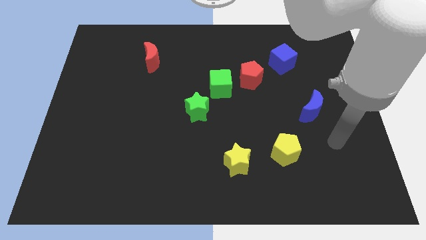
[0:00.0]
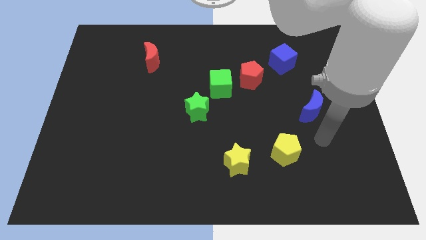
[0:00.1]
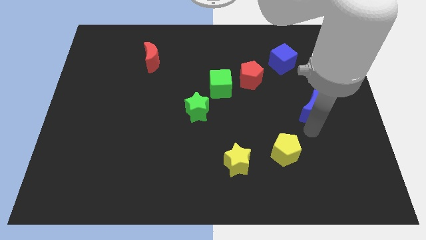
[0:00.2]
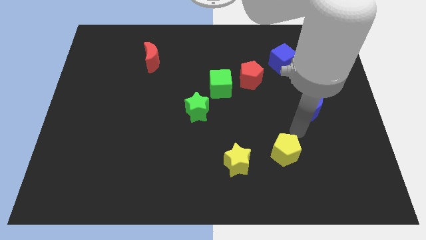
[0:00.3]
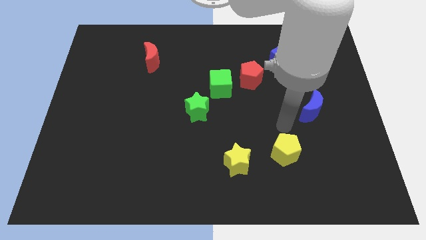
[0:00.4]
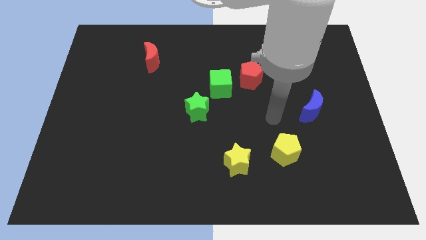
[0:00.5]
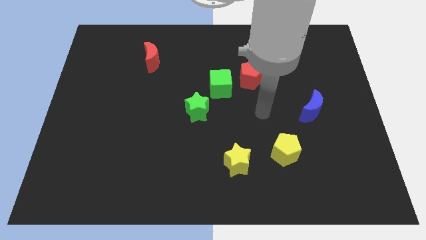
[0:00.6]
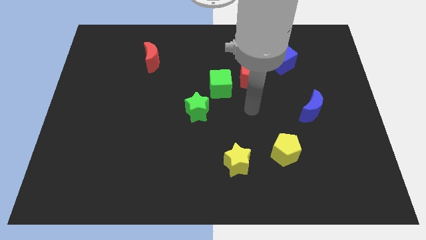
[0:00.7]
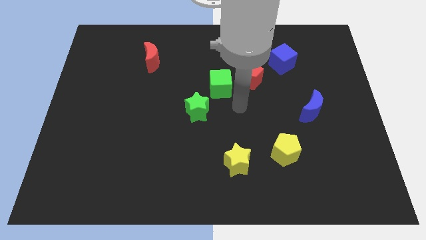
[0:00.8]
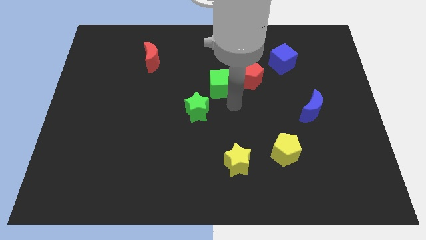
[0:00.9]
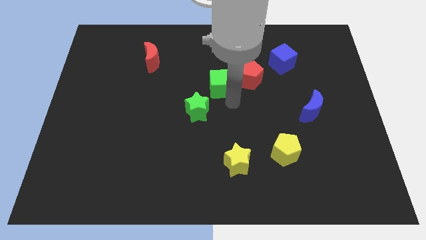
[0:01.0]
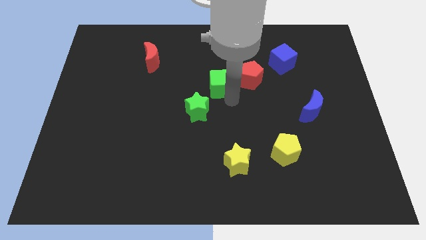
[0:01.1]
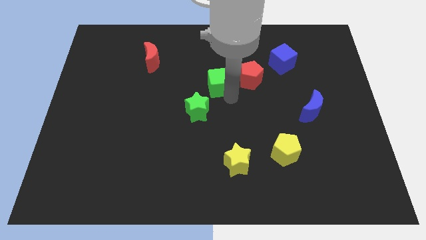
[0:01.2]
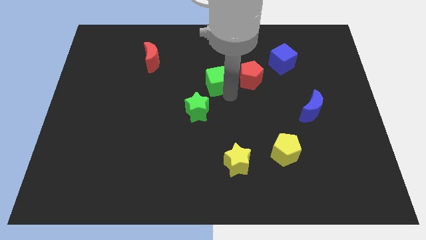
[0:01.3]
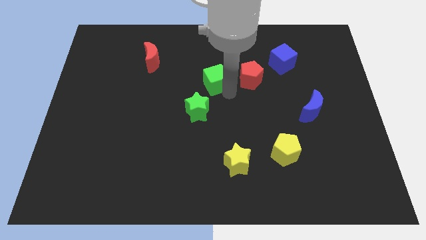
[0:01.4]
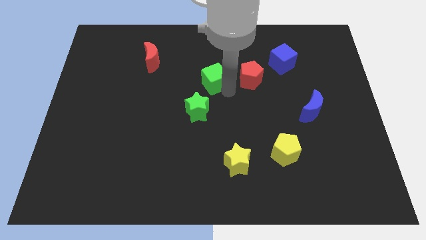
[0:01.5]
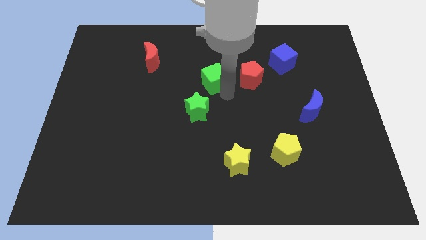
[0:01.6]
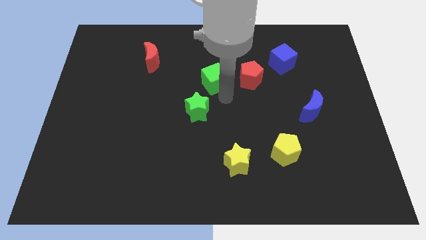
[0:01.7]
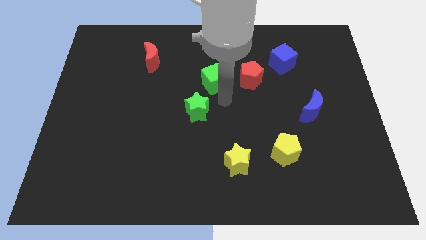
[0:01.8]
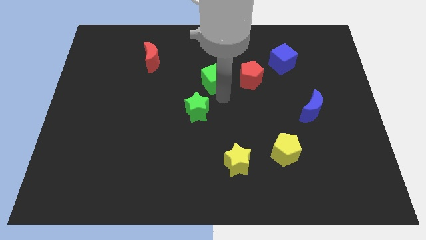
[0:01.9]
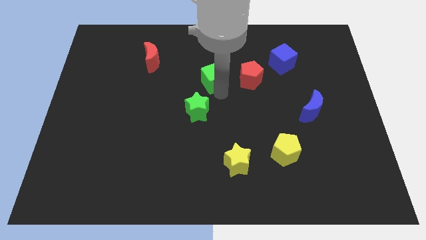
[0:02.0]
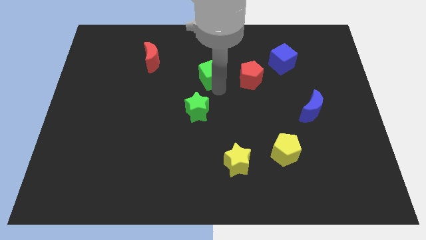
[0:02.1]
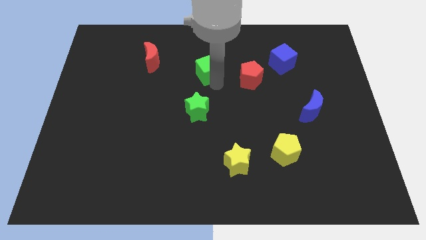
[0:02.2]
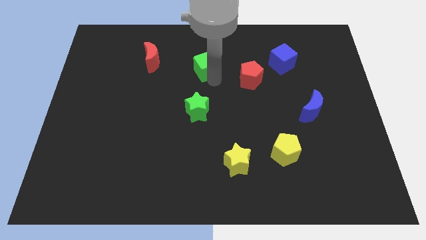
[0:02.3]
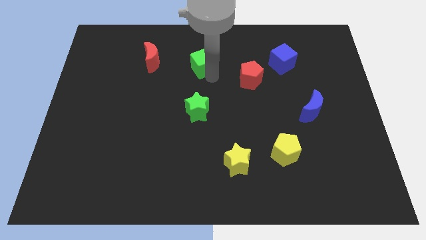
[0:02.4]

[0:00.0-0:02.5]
separate the green cube from the red pentagon and green star

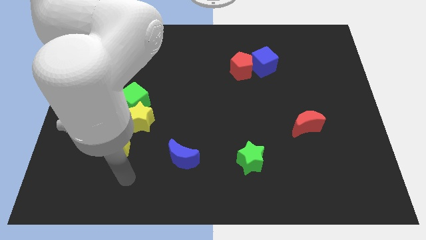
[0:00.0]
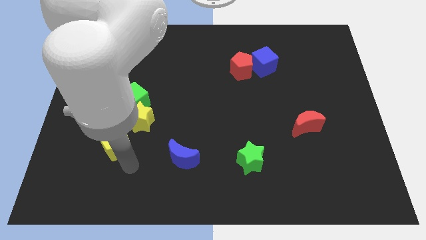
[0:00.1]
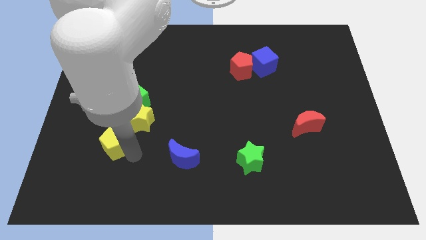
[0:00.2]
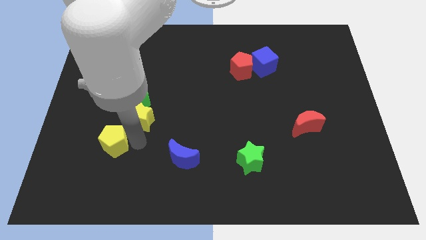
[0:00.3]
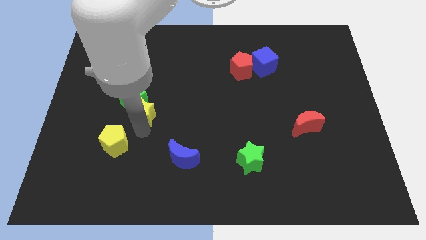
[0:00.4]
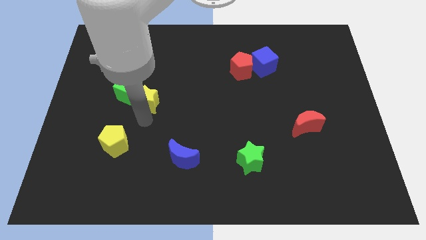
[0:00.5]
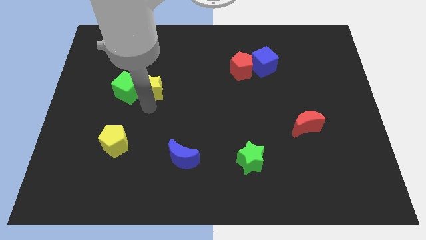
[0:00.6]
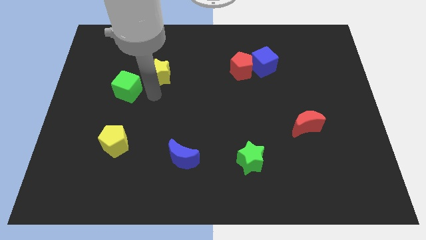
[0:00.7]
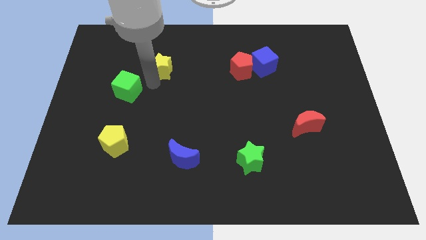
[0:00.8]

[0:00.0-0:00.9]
separate the green cube from the yellow star

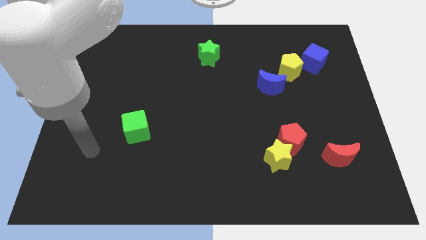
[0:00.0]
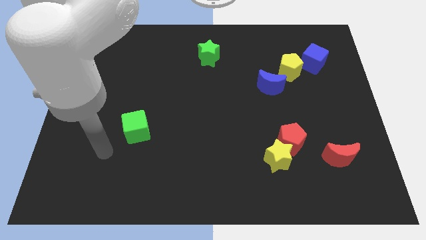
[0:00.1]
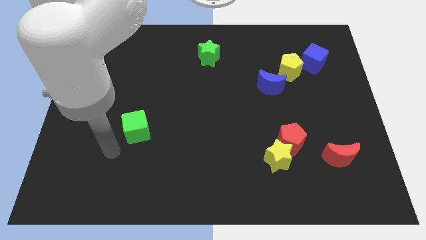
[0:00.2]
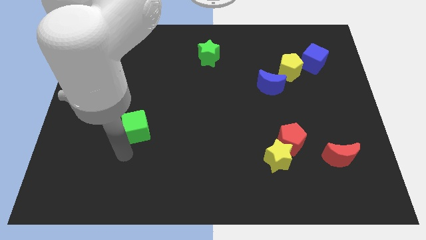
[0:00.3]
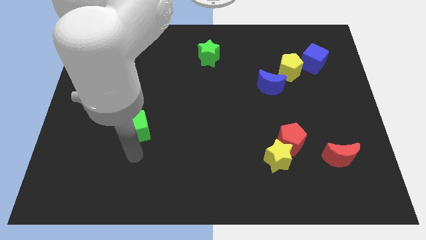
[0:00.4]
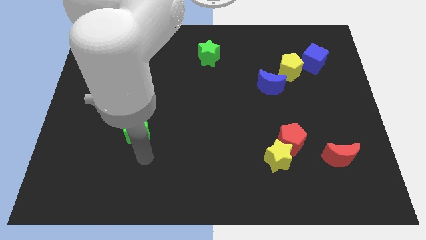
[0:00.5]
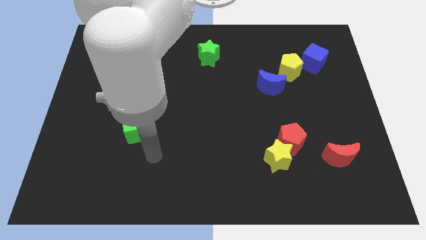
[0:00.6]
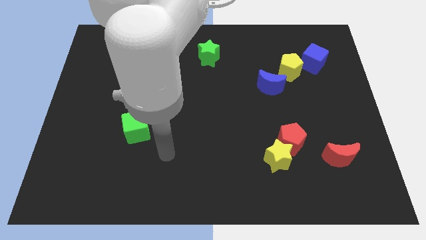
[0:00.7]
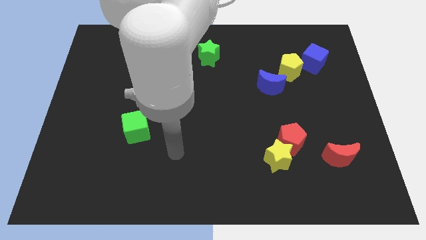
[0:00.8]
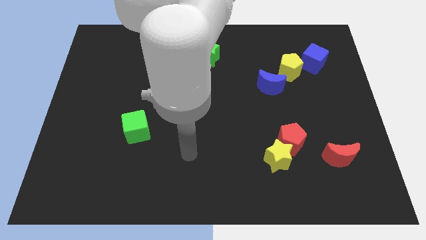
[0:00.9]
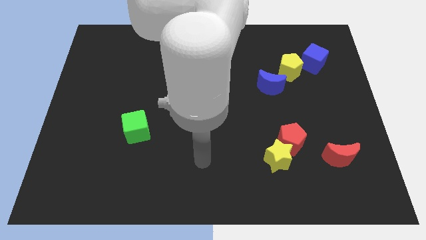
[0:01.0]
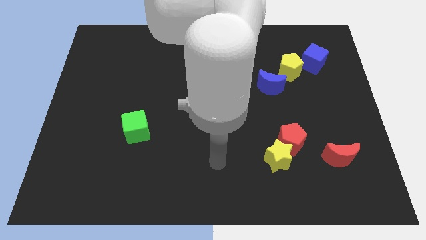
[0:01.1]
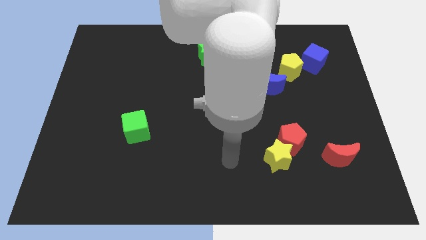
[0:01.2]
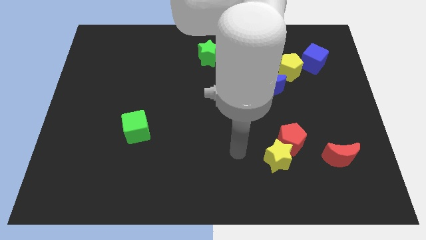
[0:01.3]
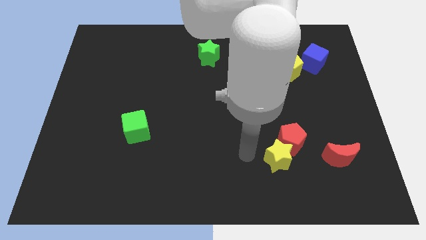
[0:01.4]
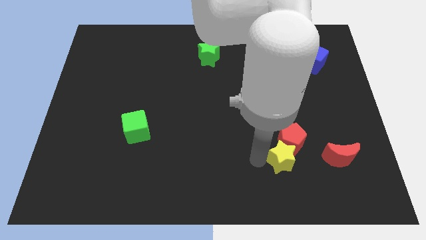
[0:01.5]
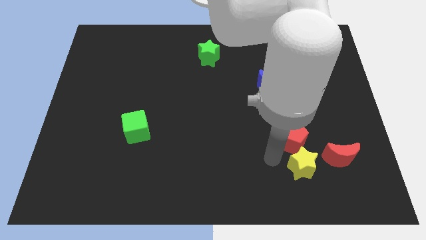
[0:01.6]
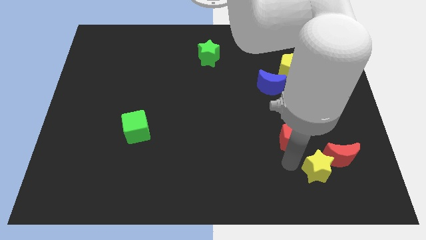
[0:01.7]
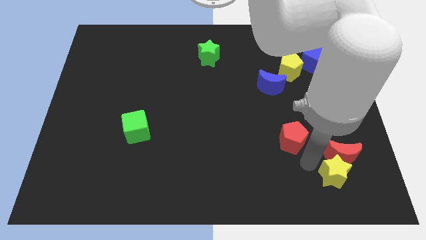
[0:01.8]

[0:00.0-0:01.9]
move the red pentagon away from the yellow star

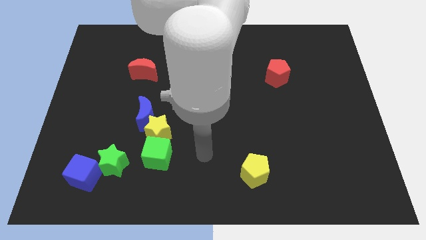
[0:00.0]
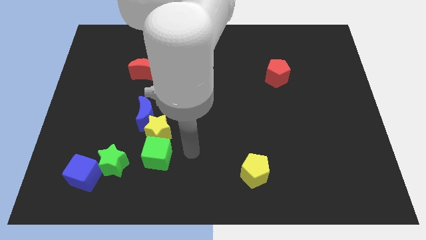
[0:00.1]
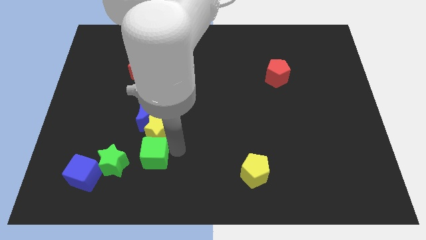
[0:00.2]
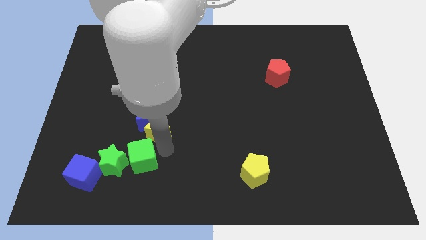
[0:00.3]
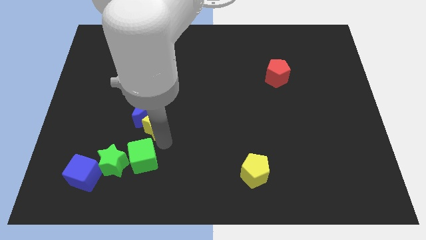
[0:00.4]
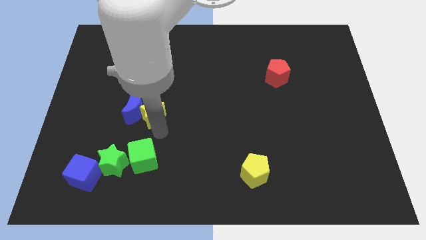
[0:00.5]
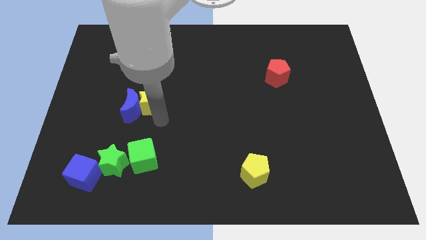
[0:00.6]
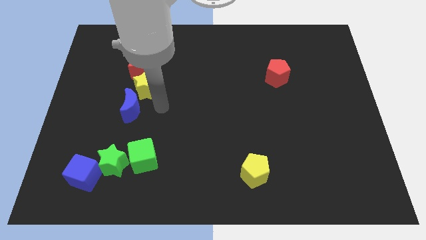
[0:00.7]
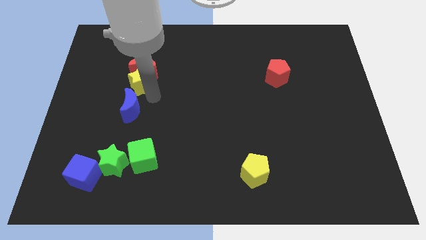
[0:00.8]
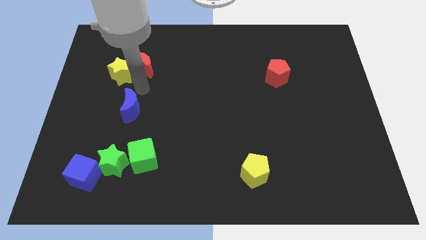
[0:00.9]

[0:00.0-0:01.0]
separate the blue moon from the yellow star

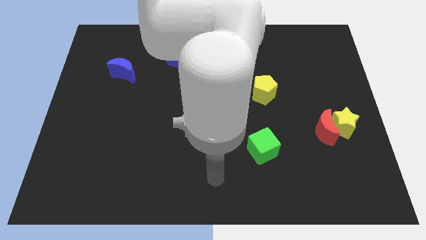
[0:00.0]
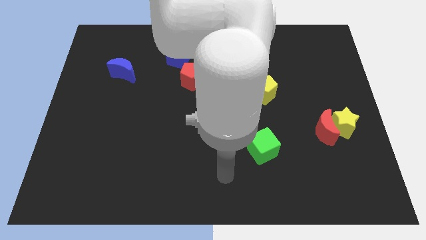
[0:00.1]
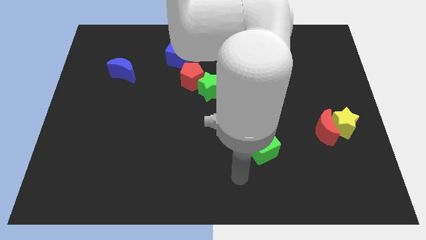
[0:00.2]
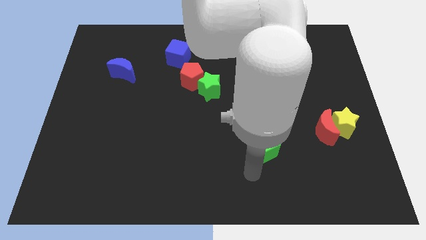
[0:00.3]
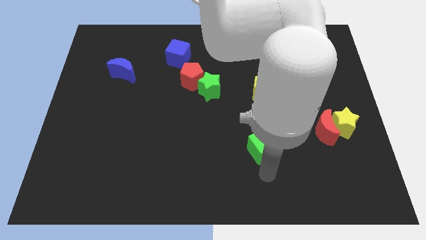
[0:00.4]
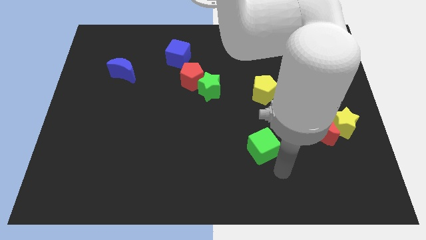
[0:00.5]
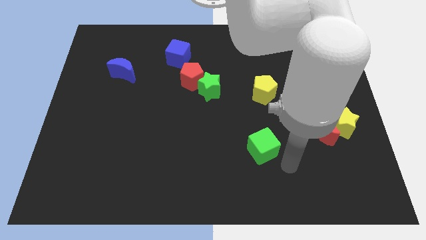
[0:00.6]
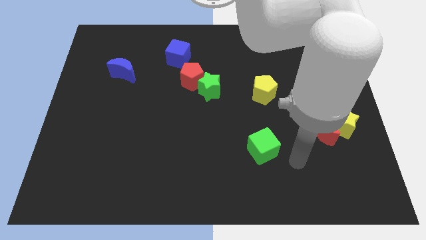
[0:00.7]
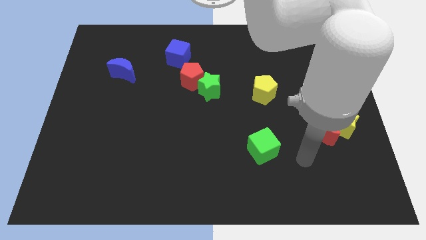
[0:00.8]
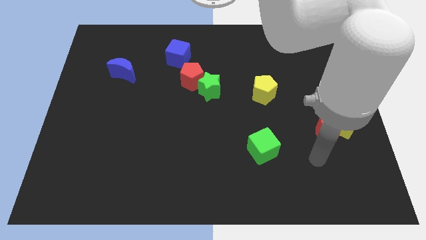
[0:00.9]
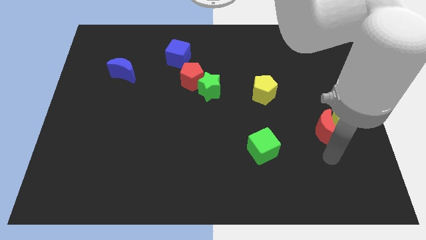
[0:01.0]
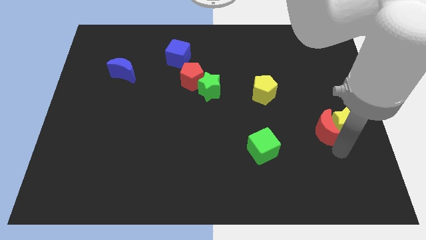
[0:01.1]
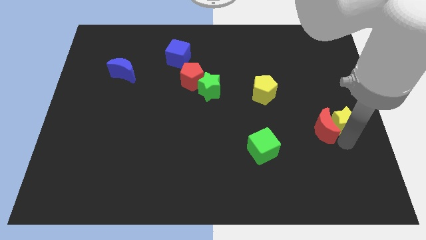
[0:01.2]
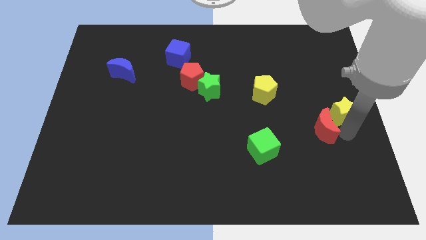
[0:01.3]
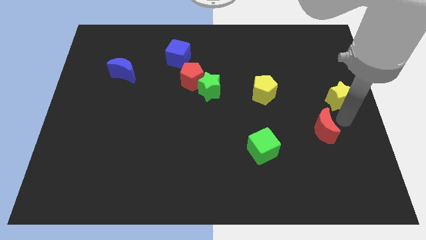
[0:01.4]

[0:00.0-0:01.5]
move the red moon away from the yellow star

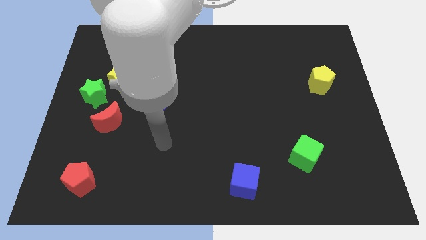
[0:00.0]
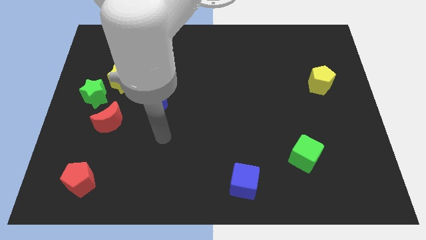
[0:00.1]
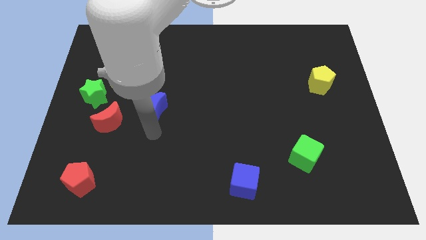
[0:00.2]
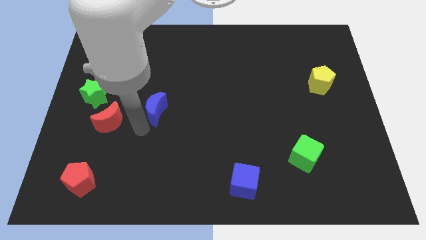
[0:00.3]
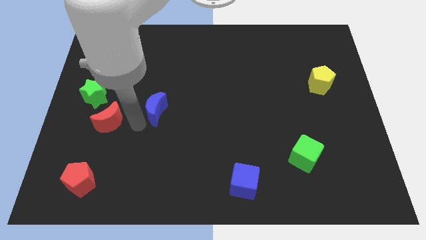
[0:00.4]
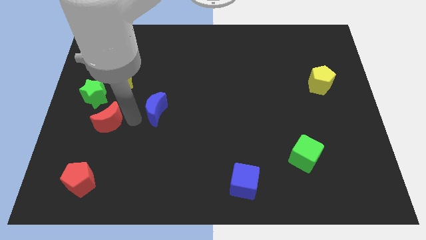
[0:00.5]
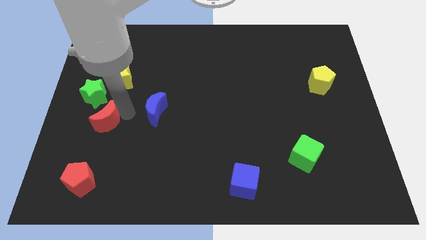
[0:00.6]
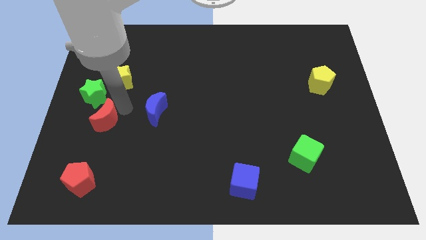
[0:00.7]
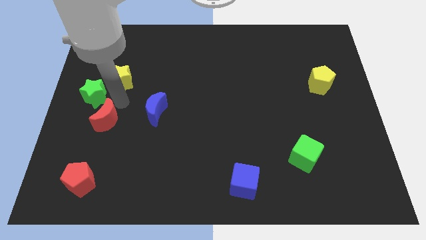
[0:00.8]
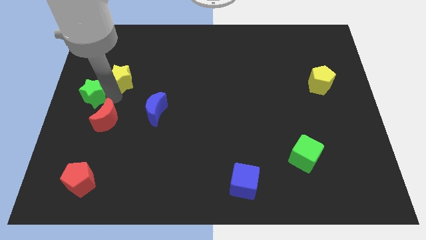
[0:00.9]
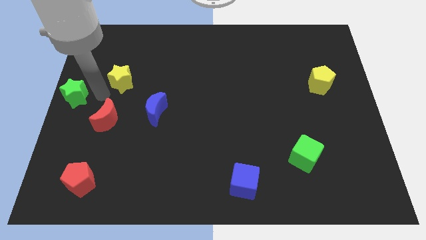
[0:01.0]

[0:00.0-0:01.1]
separate the yellow star from the green star

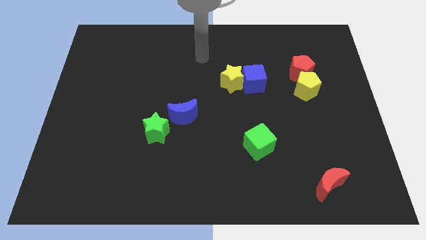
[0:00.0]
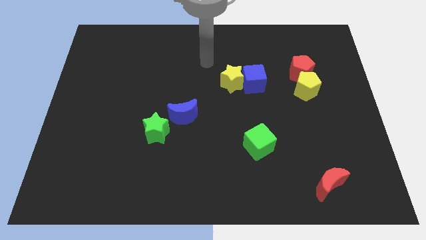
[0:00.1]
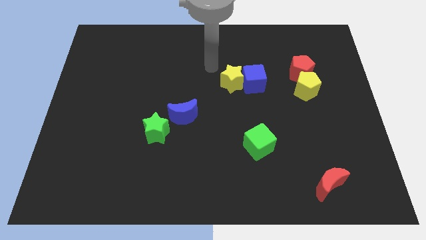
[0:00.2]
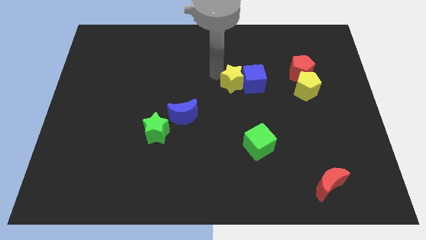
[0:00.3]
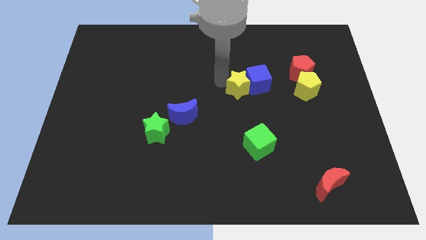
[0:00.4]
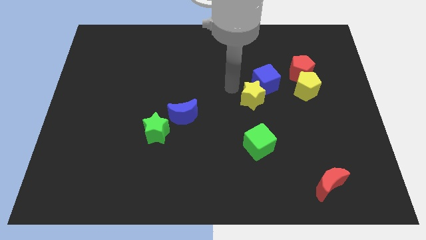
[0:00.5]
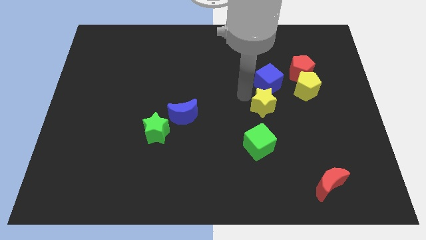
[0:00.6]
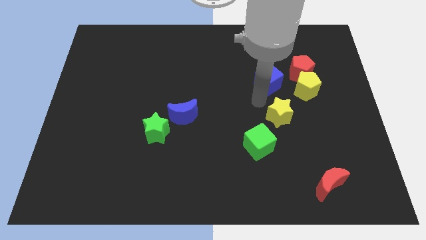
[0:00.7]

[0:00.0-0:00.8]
move the blue cube away from the yellow star
